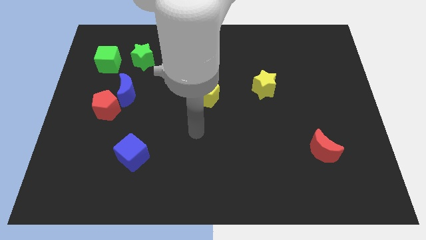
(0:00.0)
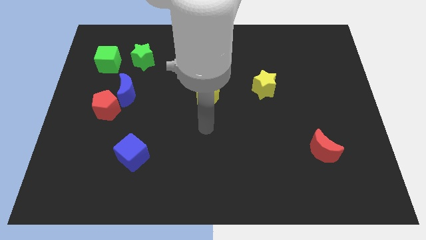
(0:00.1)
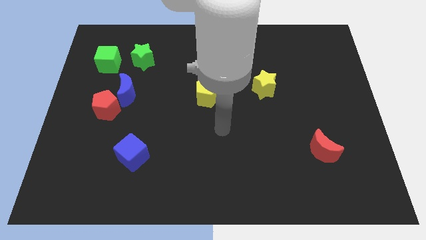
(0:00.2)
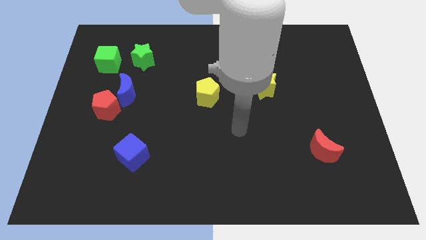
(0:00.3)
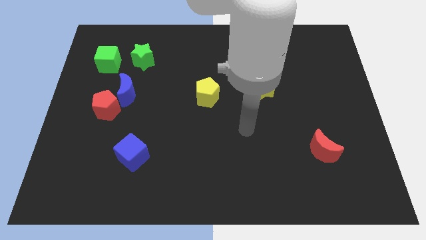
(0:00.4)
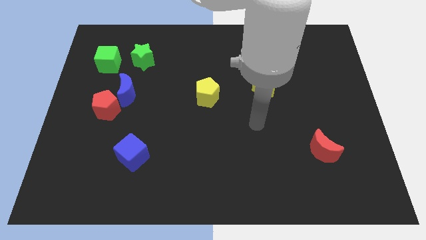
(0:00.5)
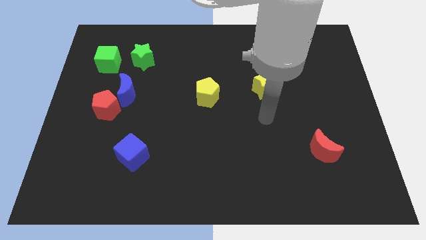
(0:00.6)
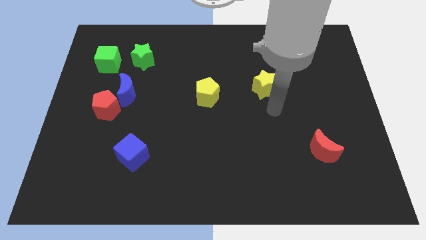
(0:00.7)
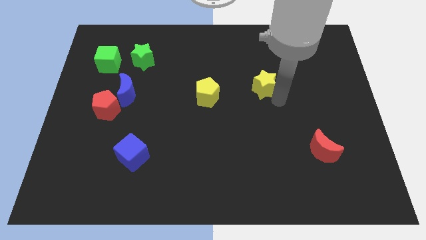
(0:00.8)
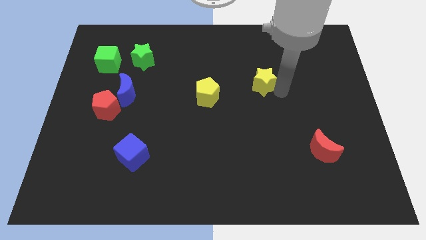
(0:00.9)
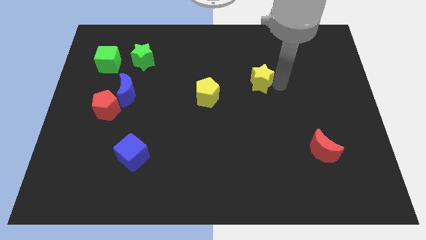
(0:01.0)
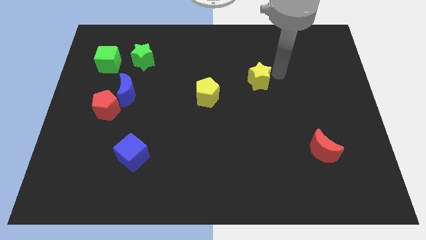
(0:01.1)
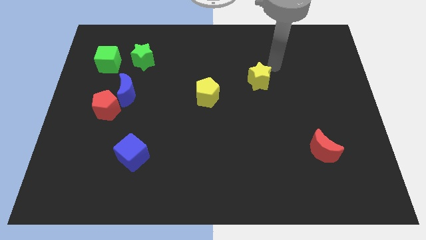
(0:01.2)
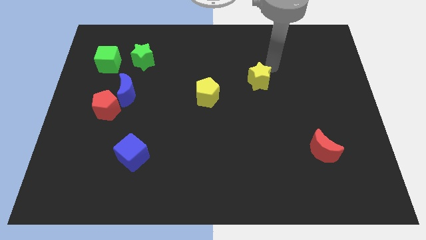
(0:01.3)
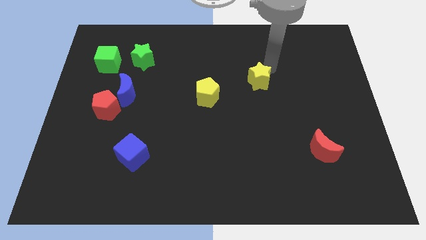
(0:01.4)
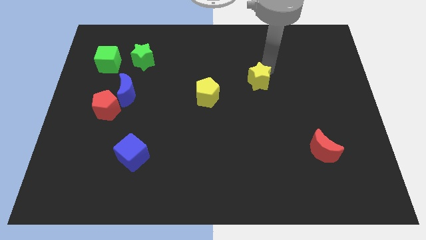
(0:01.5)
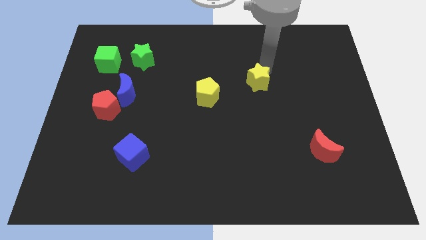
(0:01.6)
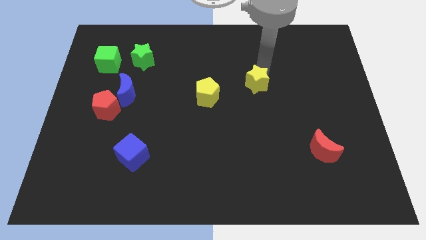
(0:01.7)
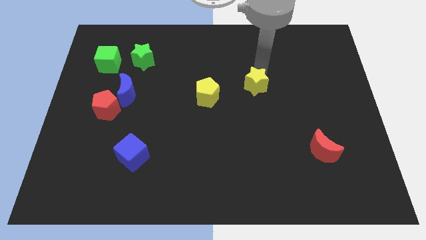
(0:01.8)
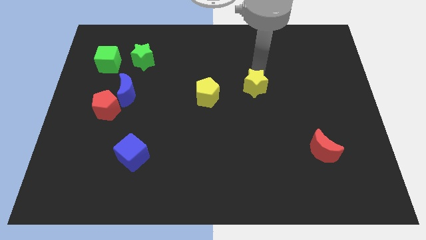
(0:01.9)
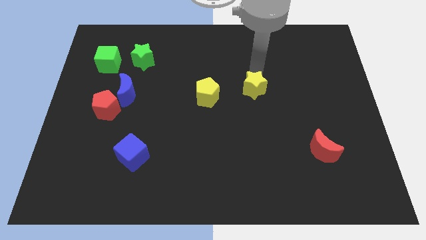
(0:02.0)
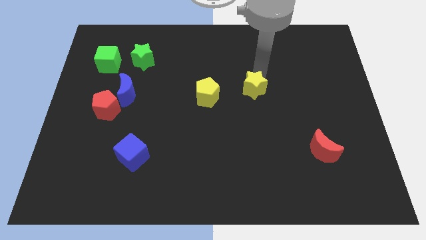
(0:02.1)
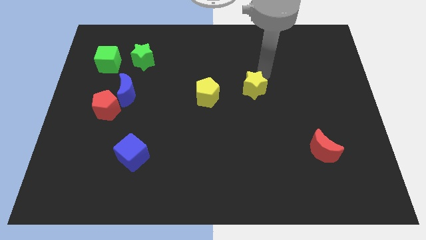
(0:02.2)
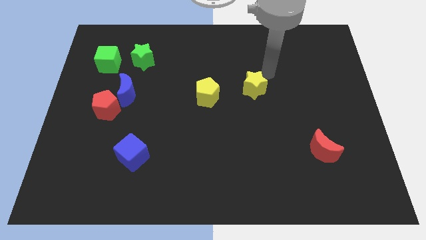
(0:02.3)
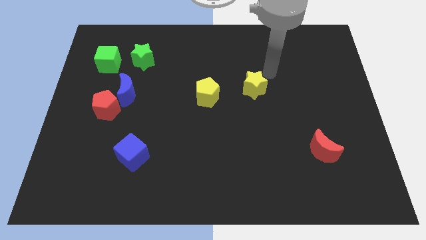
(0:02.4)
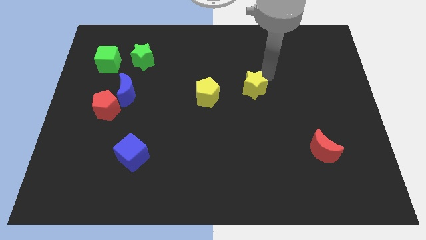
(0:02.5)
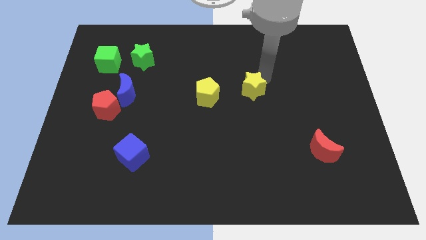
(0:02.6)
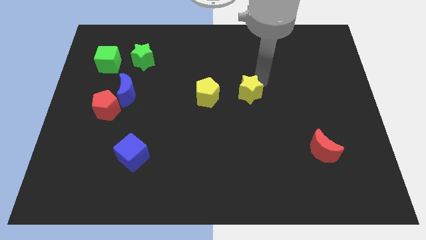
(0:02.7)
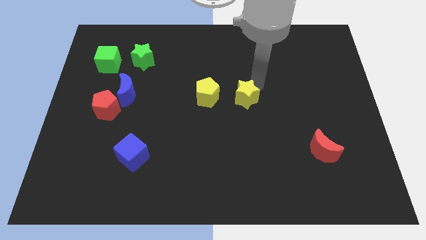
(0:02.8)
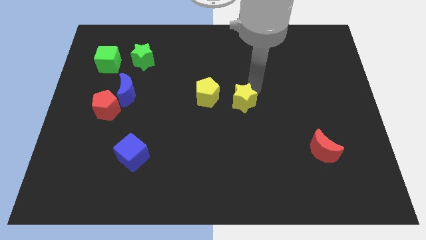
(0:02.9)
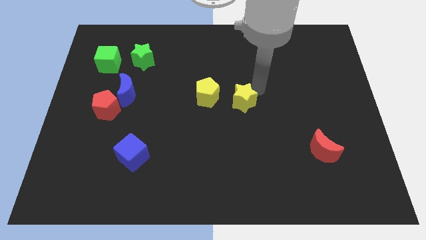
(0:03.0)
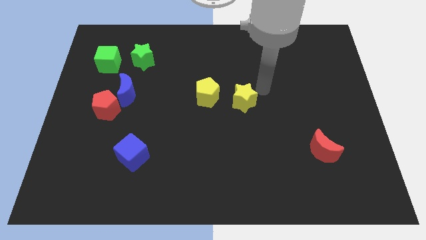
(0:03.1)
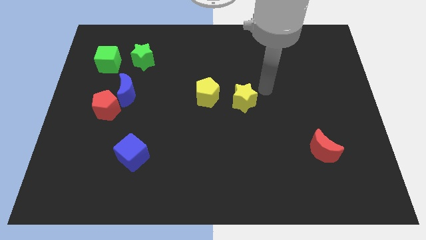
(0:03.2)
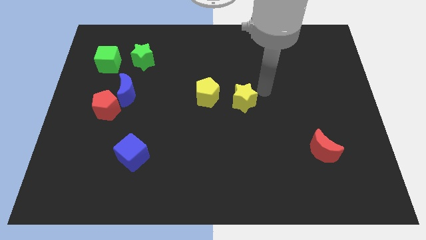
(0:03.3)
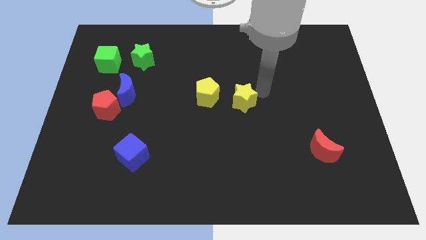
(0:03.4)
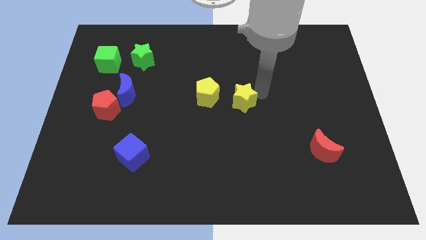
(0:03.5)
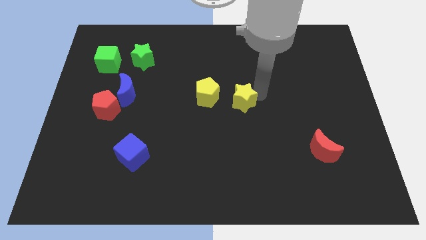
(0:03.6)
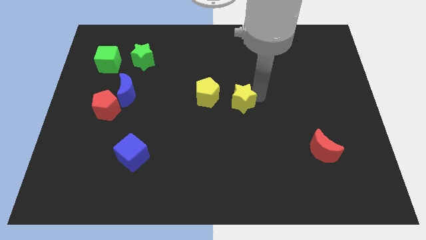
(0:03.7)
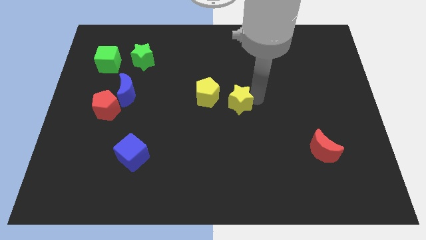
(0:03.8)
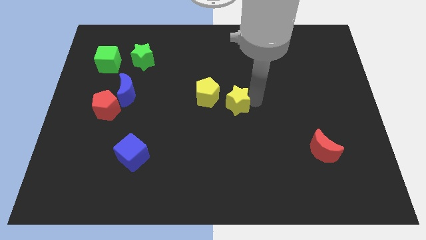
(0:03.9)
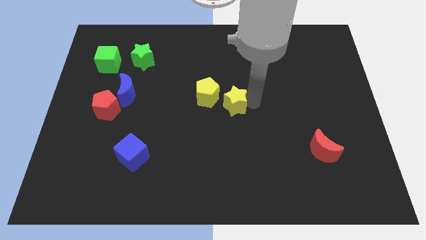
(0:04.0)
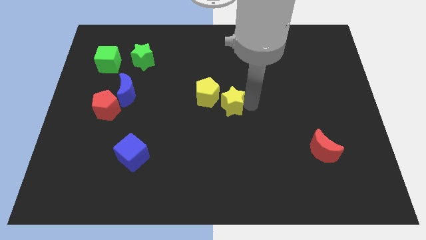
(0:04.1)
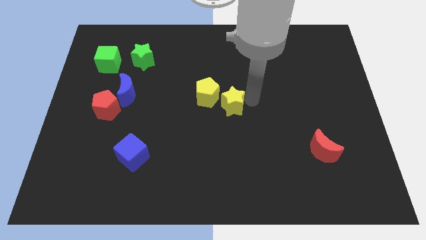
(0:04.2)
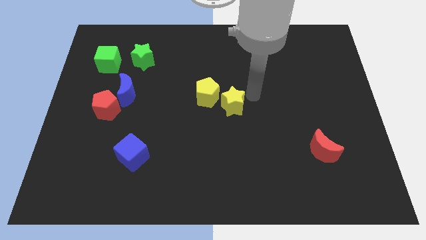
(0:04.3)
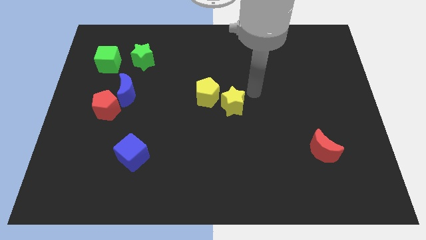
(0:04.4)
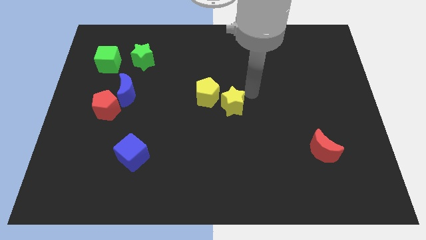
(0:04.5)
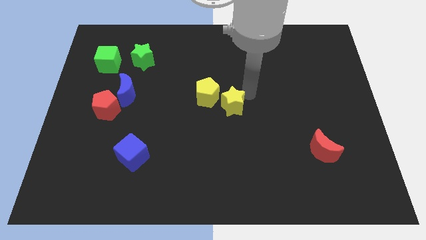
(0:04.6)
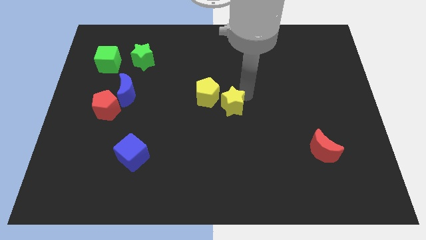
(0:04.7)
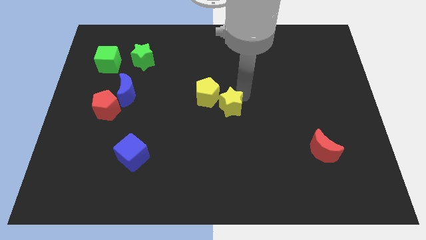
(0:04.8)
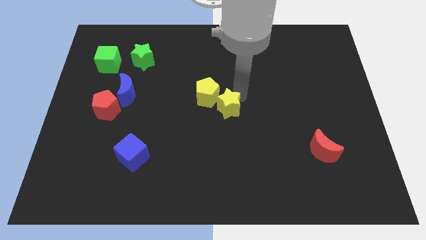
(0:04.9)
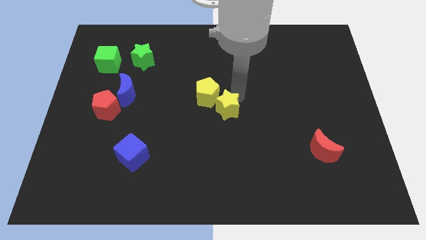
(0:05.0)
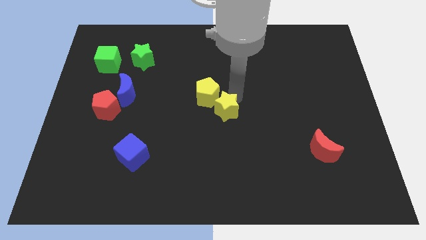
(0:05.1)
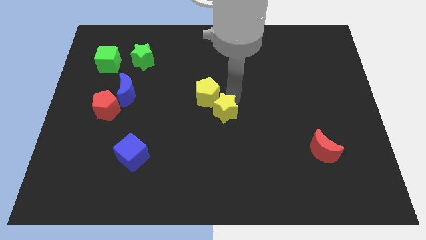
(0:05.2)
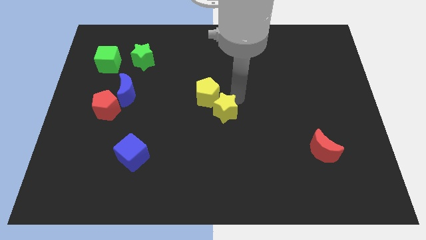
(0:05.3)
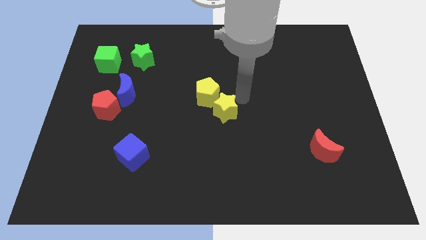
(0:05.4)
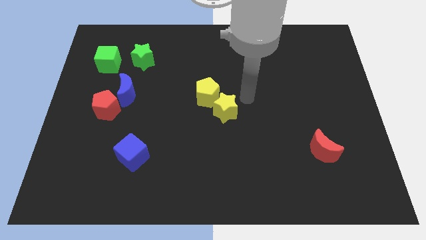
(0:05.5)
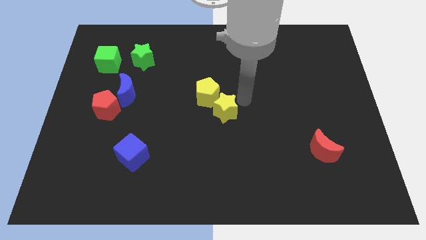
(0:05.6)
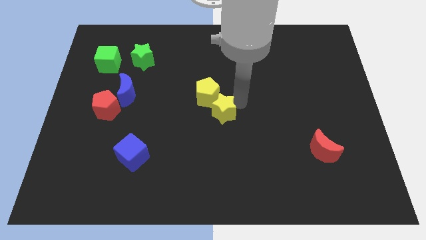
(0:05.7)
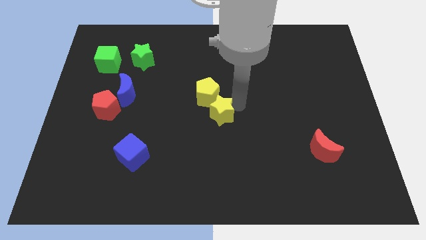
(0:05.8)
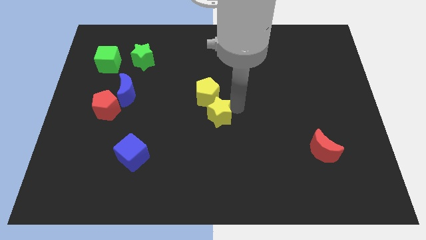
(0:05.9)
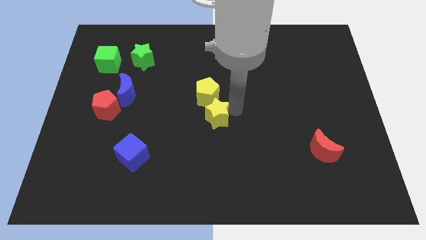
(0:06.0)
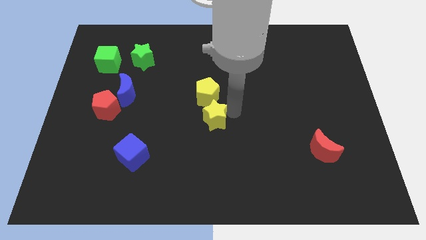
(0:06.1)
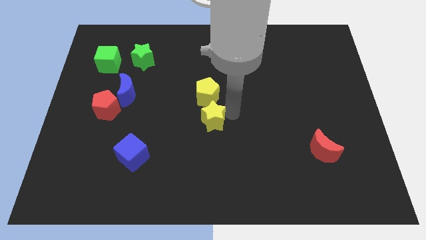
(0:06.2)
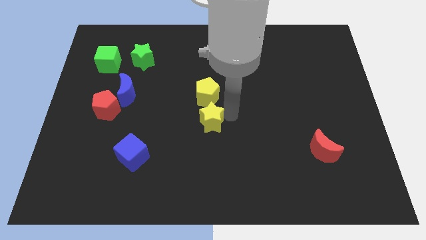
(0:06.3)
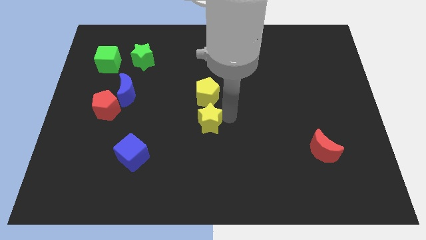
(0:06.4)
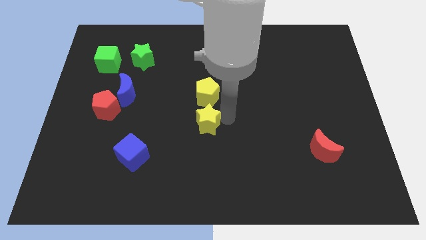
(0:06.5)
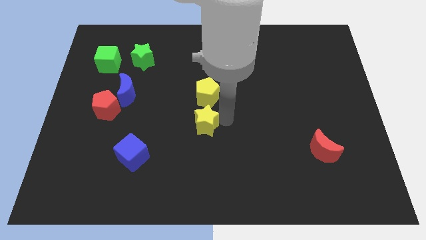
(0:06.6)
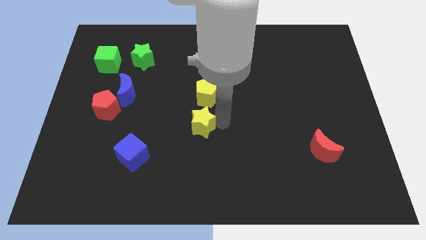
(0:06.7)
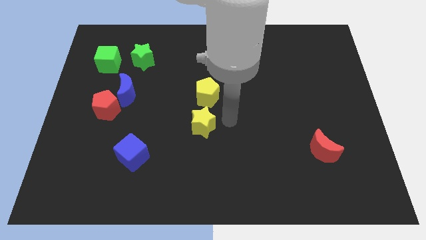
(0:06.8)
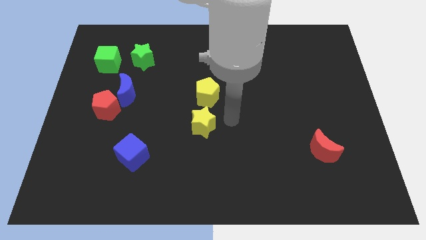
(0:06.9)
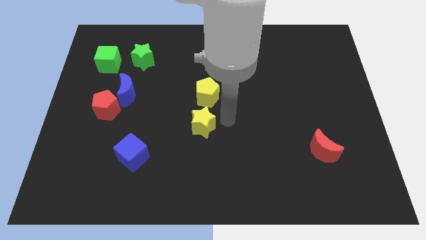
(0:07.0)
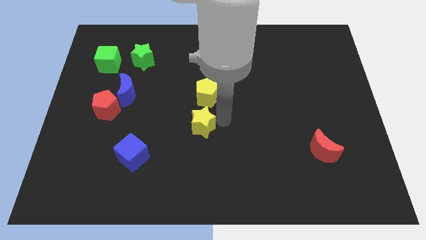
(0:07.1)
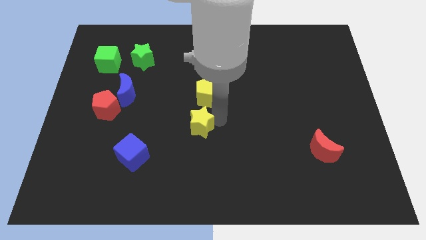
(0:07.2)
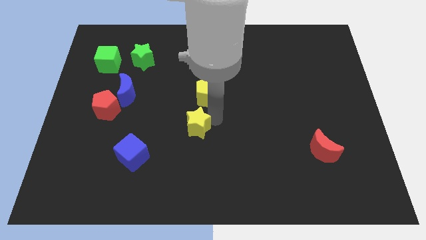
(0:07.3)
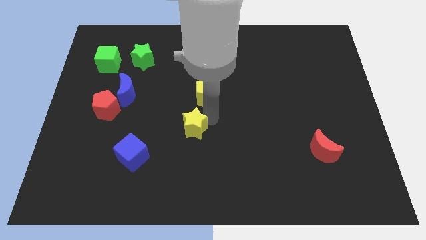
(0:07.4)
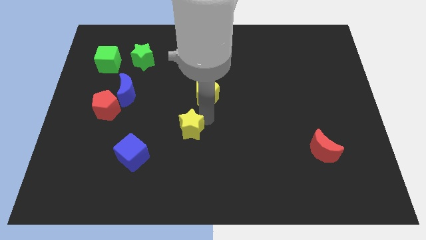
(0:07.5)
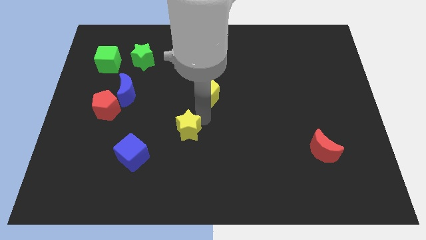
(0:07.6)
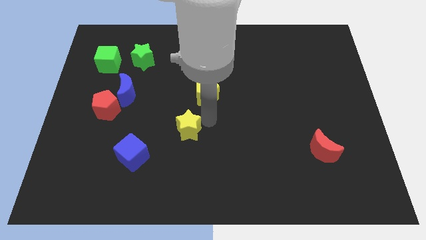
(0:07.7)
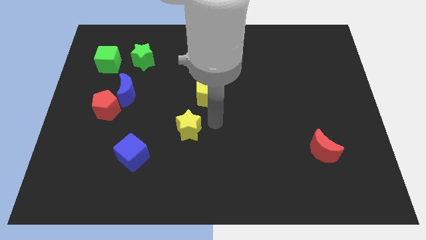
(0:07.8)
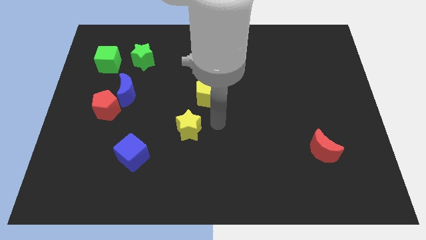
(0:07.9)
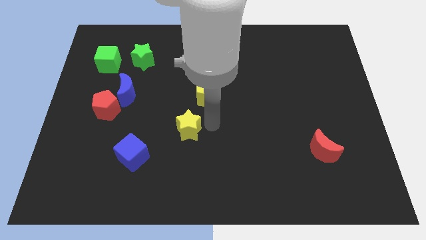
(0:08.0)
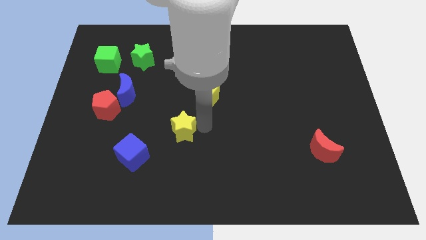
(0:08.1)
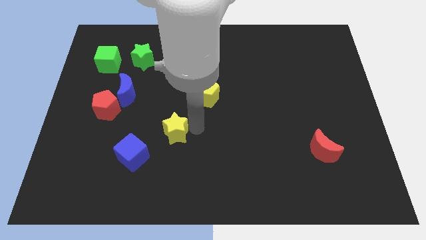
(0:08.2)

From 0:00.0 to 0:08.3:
slide the yellow star to the top right of the blue cube
